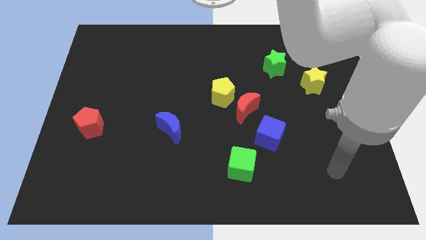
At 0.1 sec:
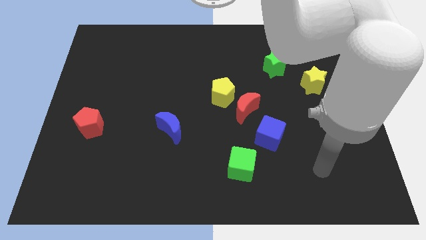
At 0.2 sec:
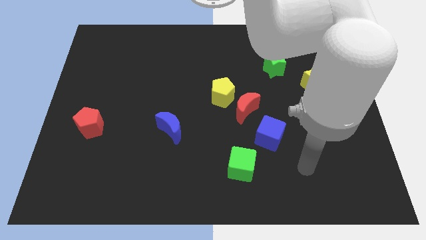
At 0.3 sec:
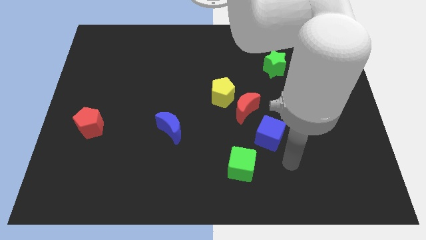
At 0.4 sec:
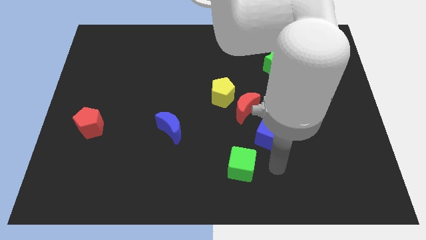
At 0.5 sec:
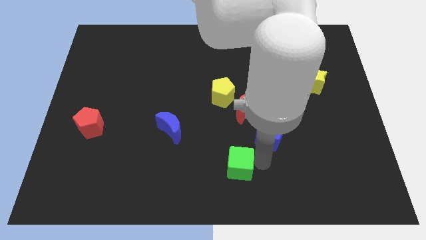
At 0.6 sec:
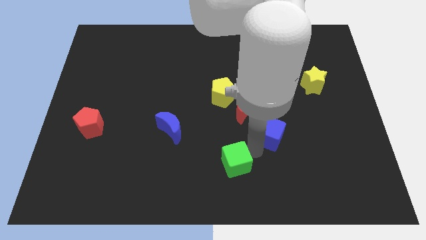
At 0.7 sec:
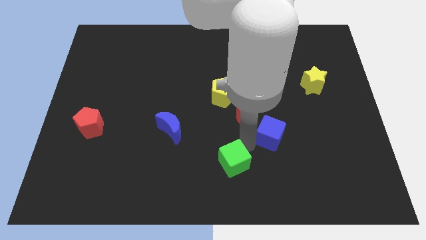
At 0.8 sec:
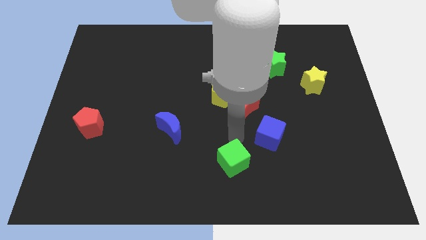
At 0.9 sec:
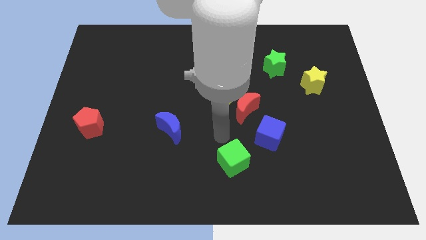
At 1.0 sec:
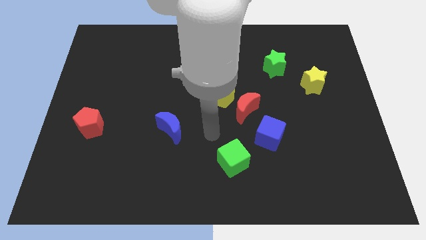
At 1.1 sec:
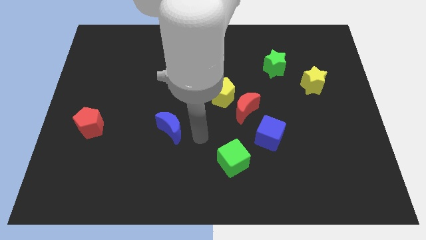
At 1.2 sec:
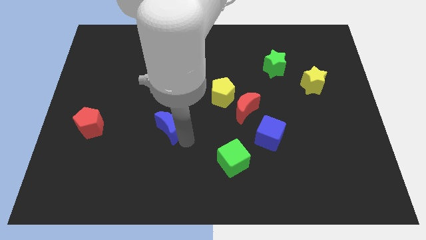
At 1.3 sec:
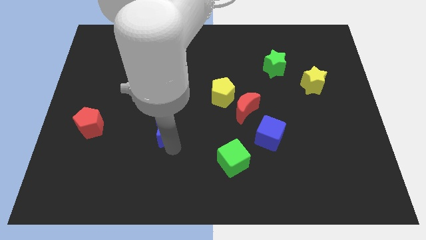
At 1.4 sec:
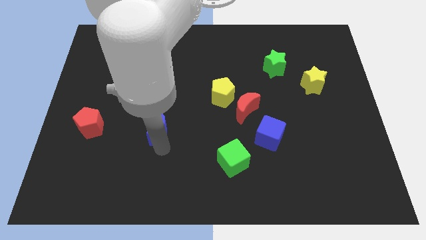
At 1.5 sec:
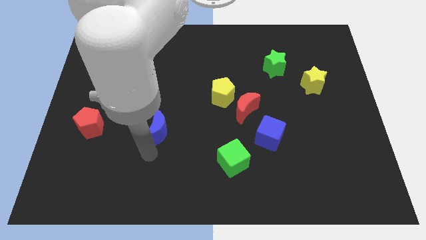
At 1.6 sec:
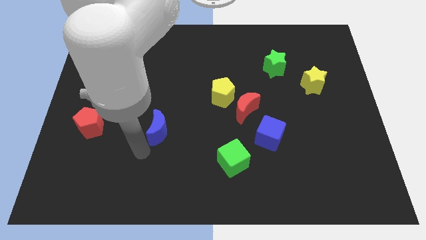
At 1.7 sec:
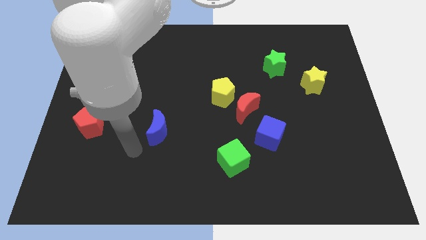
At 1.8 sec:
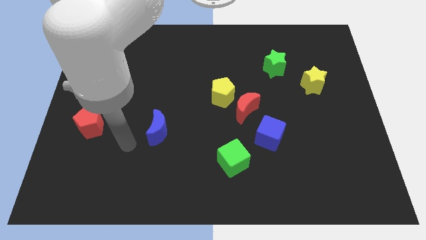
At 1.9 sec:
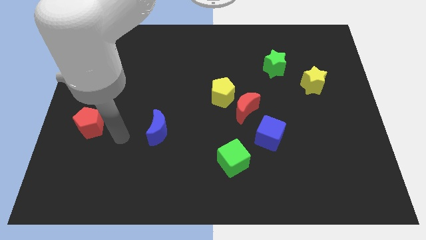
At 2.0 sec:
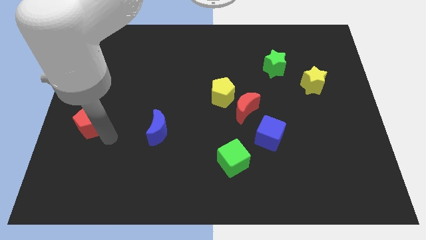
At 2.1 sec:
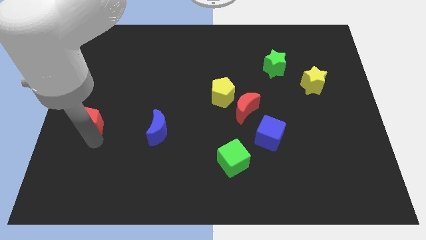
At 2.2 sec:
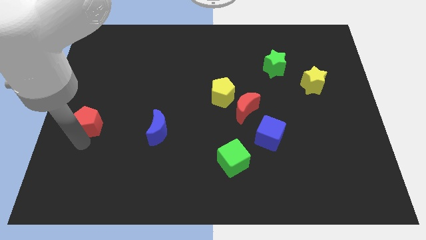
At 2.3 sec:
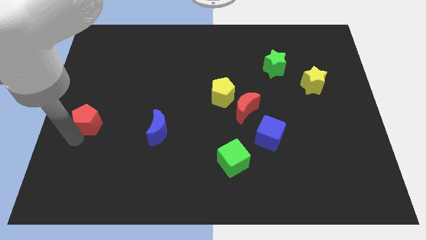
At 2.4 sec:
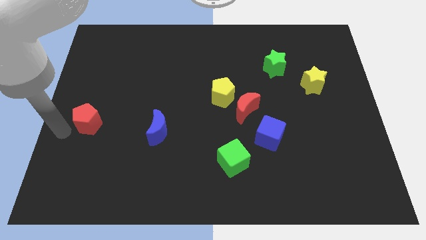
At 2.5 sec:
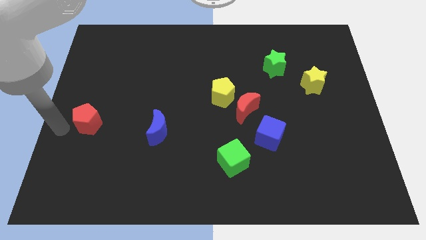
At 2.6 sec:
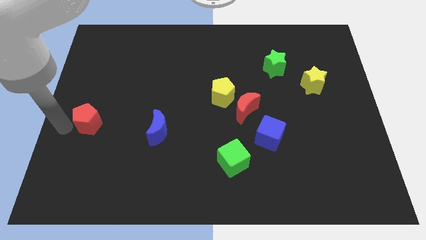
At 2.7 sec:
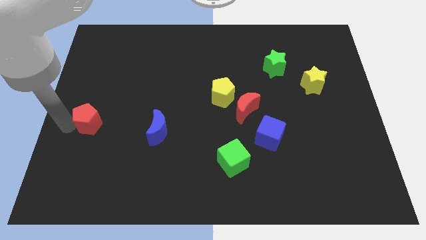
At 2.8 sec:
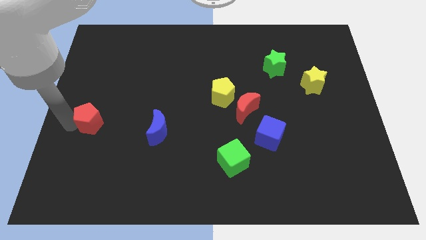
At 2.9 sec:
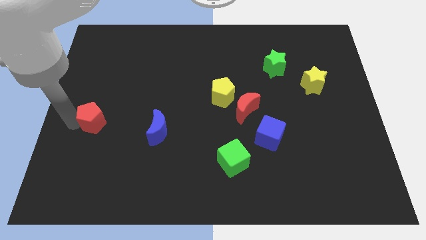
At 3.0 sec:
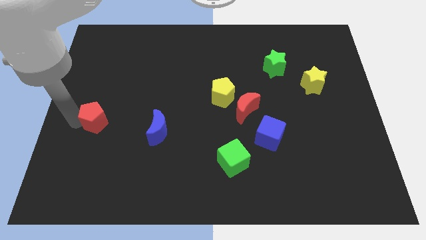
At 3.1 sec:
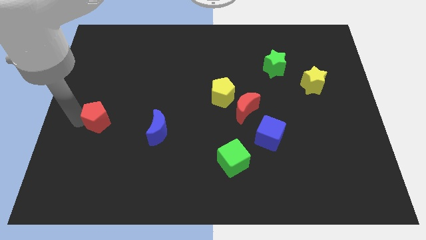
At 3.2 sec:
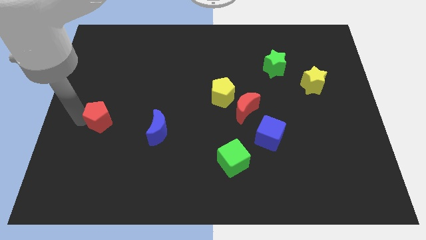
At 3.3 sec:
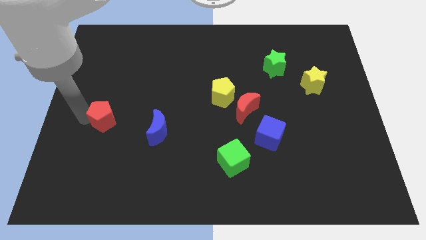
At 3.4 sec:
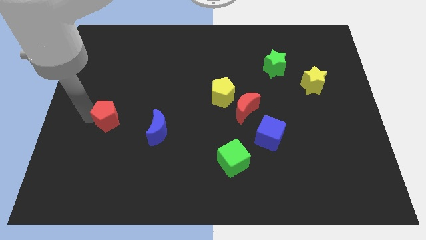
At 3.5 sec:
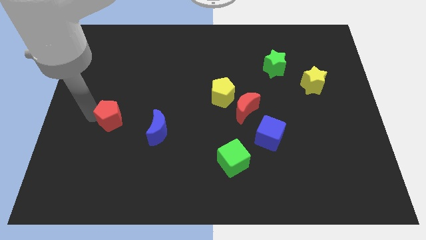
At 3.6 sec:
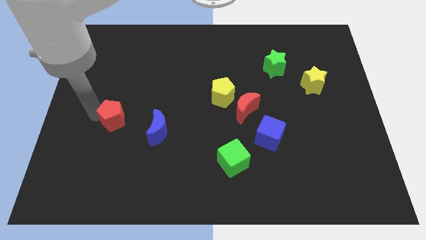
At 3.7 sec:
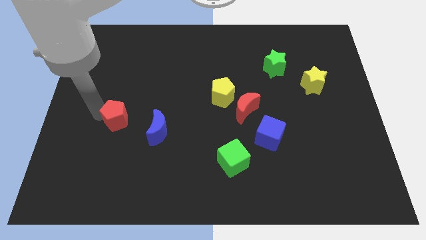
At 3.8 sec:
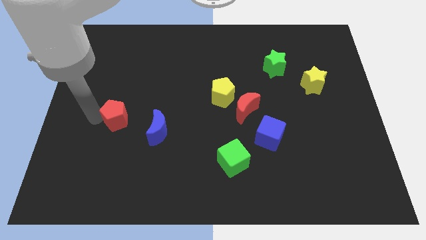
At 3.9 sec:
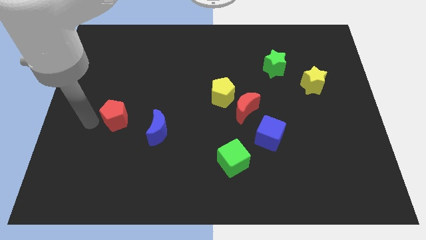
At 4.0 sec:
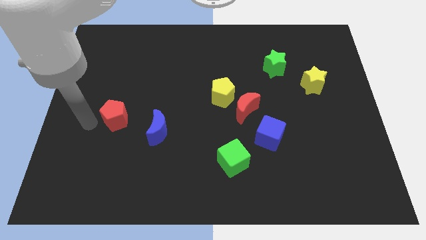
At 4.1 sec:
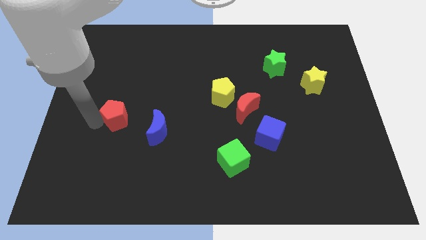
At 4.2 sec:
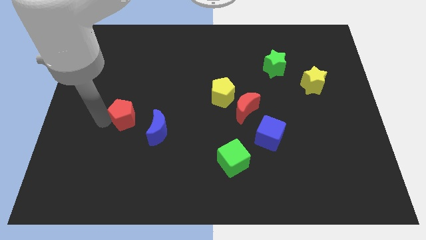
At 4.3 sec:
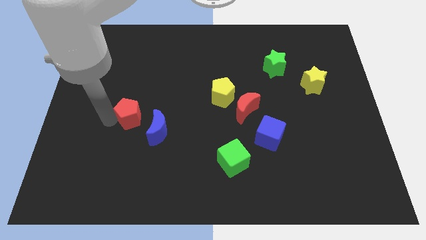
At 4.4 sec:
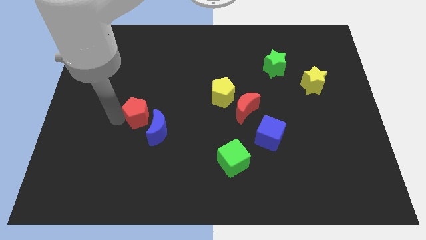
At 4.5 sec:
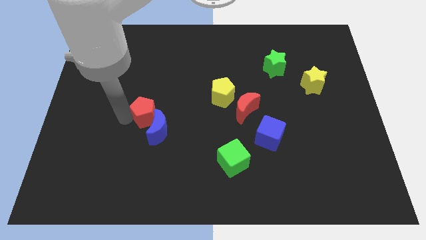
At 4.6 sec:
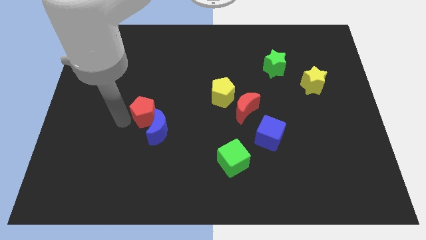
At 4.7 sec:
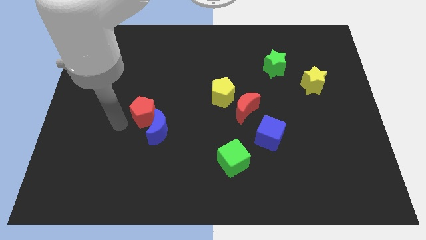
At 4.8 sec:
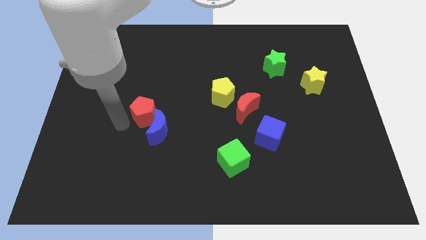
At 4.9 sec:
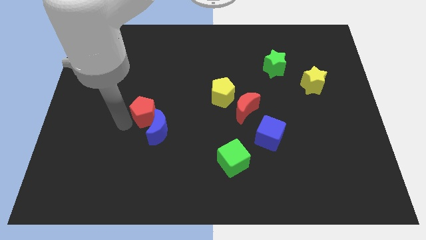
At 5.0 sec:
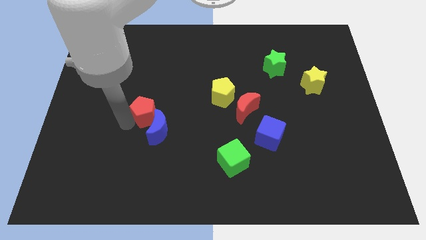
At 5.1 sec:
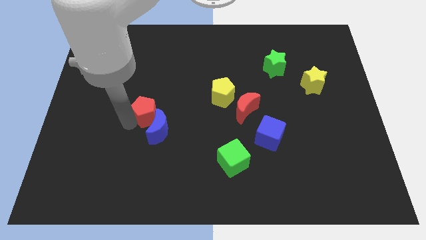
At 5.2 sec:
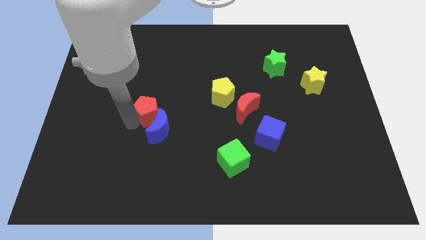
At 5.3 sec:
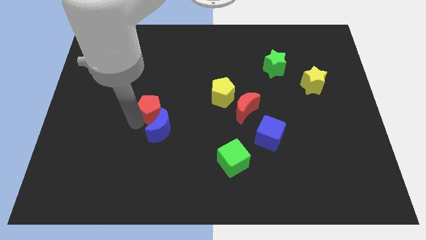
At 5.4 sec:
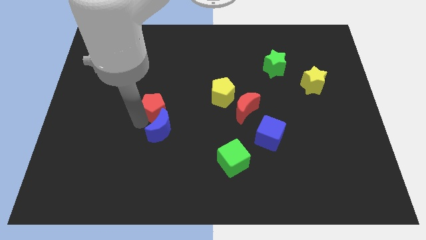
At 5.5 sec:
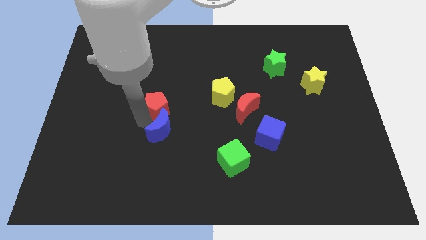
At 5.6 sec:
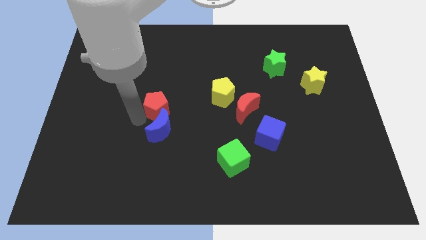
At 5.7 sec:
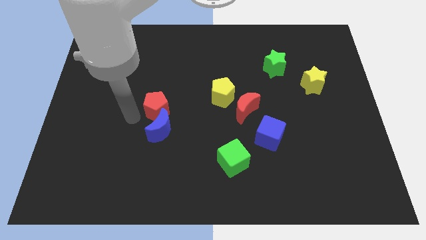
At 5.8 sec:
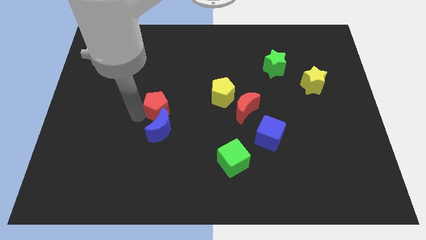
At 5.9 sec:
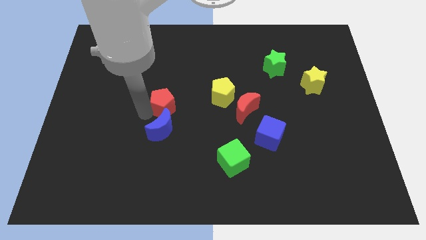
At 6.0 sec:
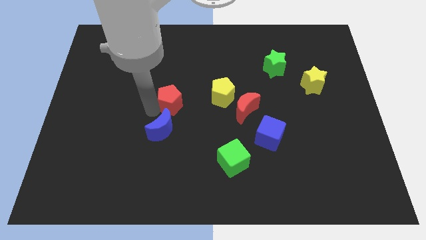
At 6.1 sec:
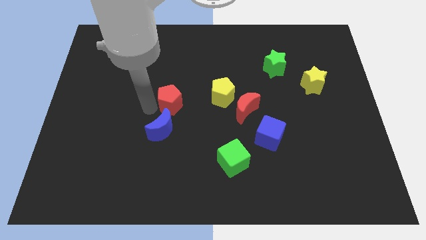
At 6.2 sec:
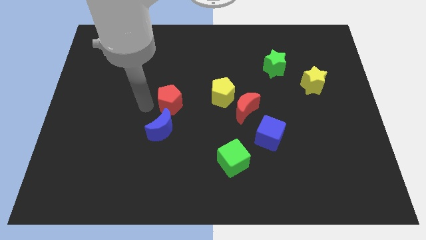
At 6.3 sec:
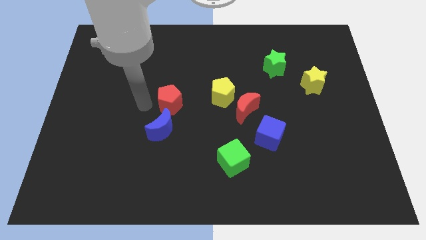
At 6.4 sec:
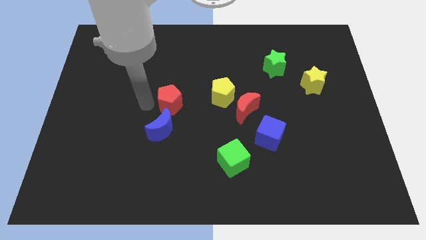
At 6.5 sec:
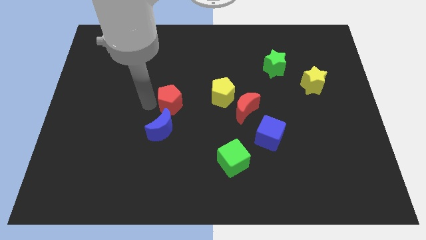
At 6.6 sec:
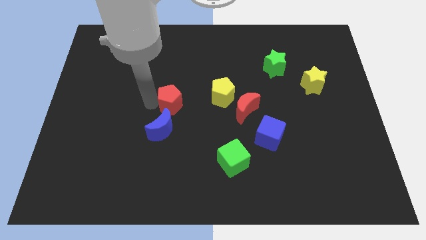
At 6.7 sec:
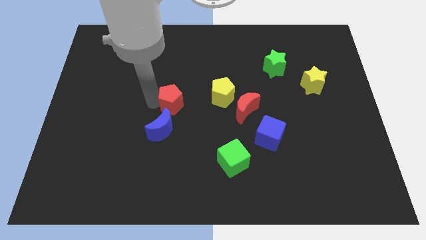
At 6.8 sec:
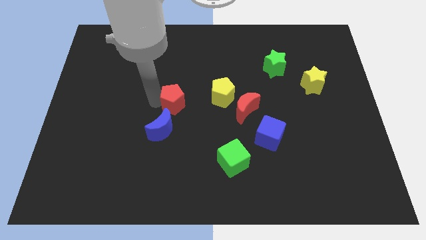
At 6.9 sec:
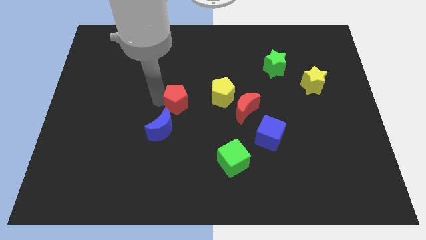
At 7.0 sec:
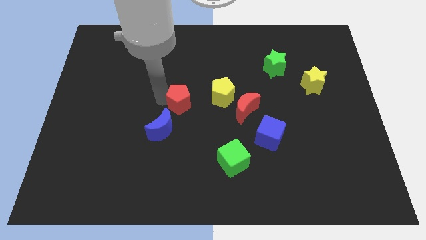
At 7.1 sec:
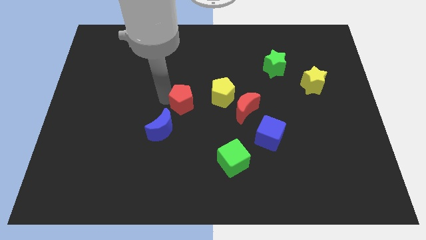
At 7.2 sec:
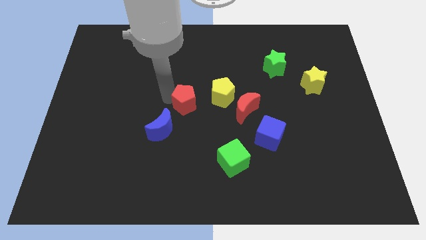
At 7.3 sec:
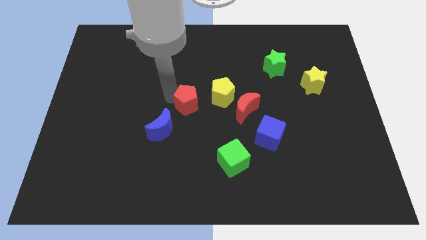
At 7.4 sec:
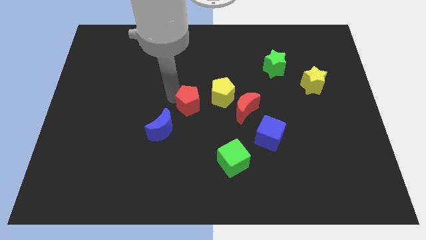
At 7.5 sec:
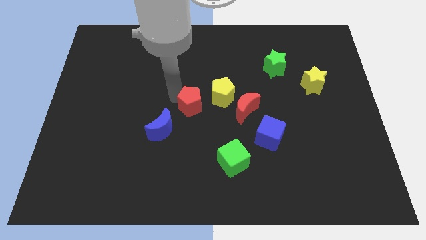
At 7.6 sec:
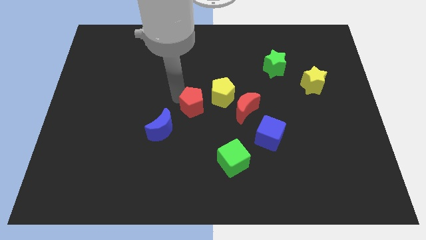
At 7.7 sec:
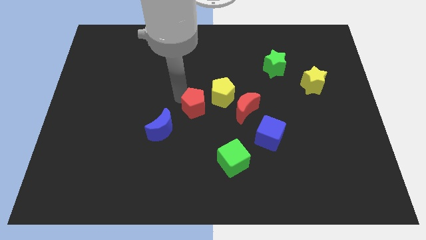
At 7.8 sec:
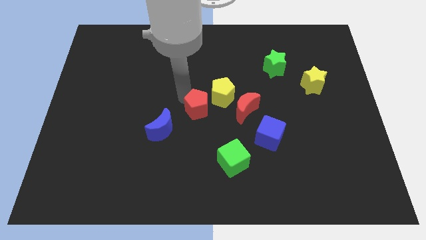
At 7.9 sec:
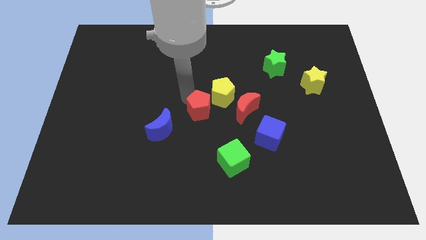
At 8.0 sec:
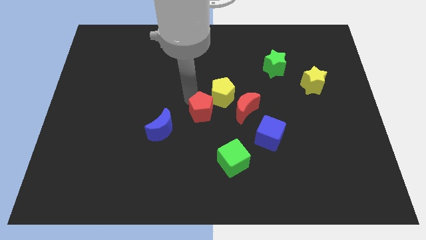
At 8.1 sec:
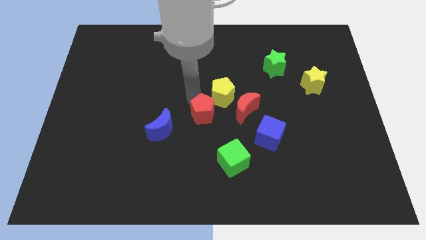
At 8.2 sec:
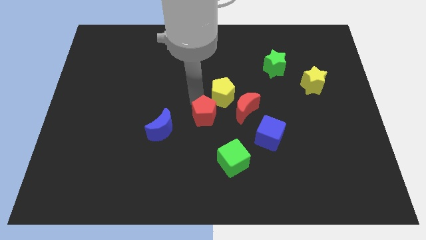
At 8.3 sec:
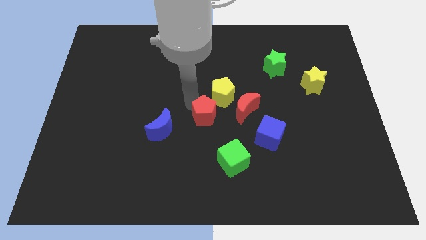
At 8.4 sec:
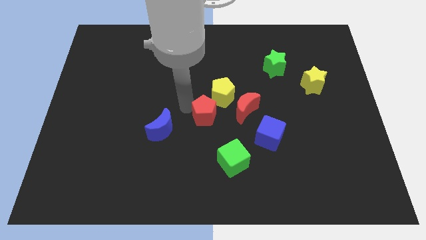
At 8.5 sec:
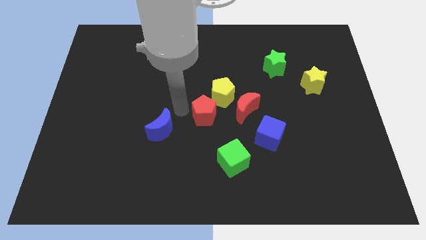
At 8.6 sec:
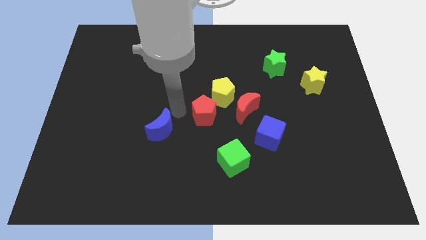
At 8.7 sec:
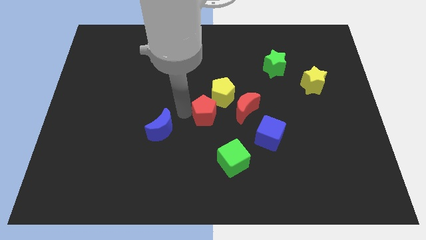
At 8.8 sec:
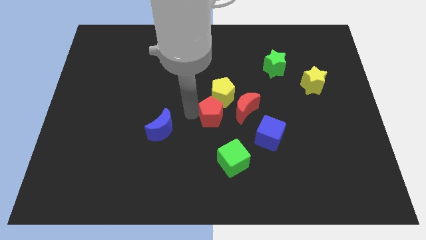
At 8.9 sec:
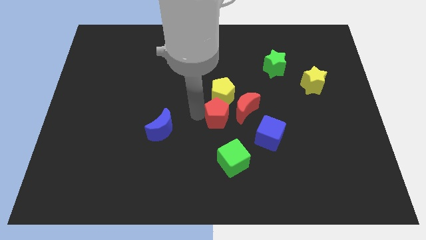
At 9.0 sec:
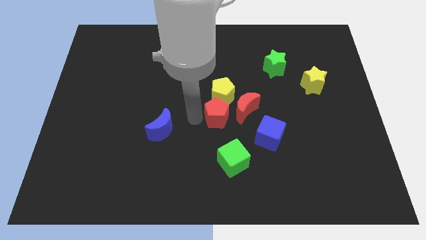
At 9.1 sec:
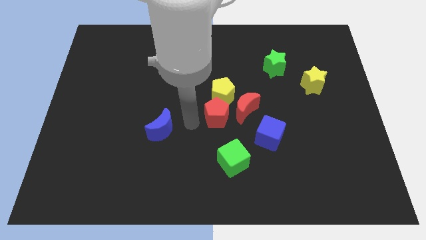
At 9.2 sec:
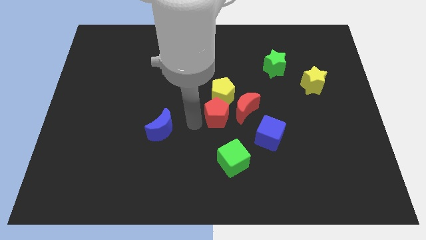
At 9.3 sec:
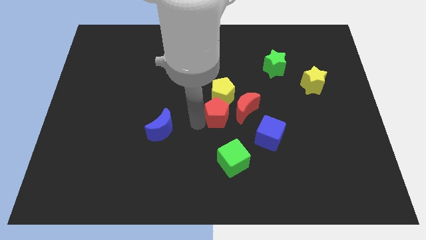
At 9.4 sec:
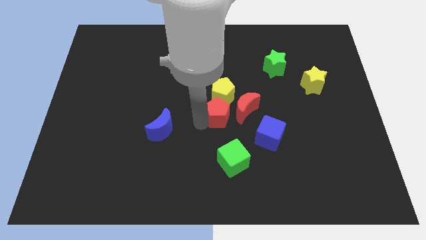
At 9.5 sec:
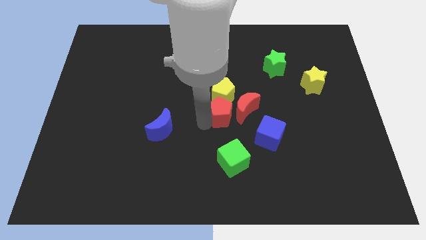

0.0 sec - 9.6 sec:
push the red pentagon close to the red moon
